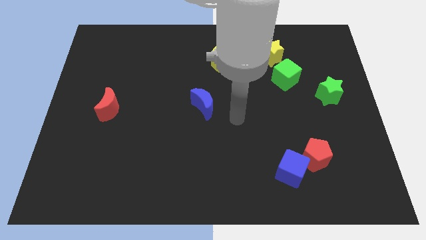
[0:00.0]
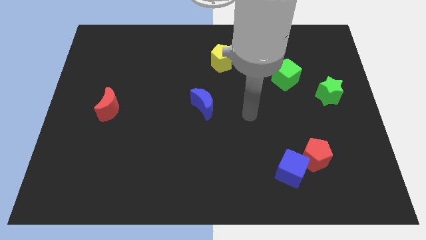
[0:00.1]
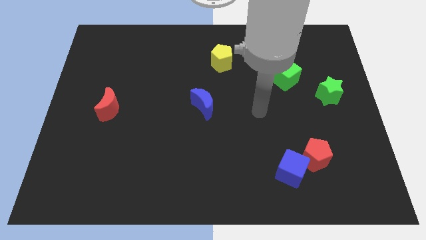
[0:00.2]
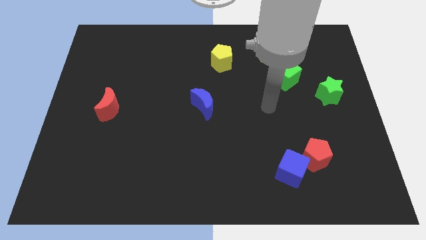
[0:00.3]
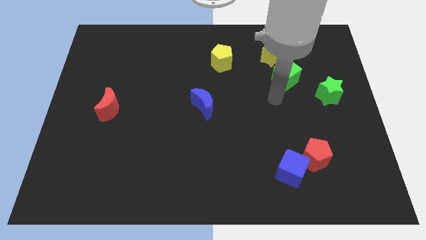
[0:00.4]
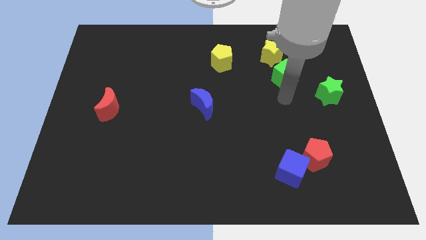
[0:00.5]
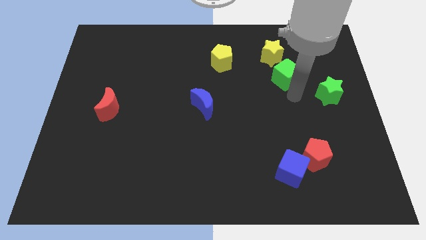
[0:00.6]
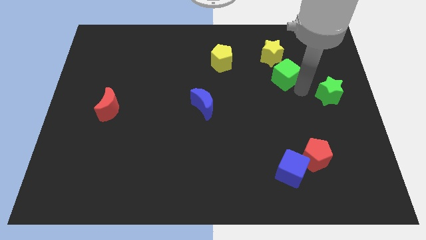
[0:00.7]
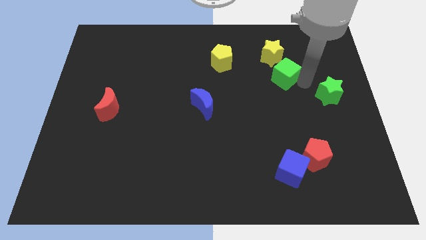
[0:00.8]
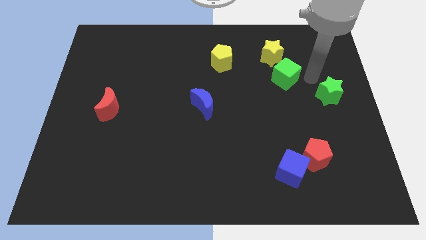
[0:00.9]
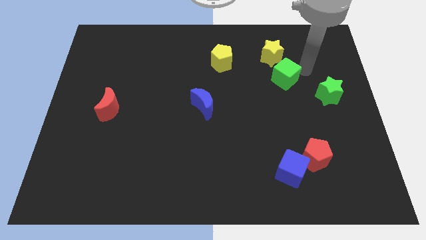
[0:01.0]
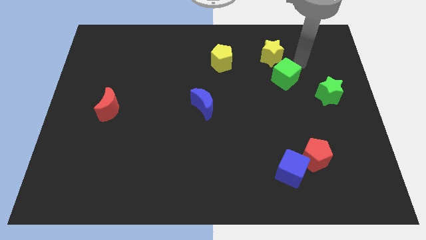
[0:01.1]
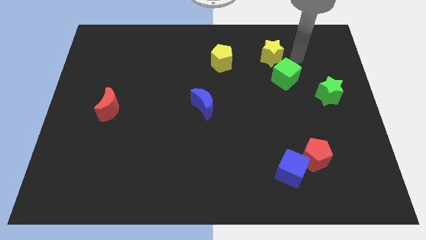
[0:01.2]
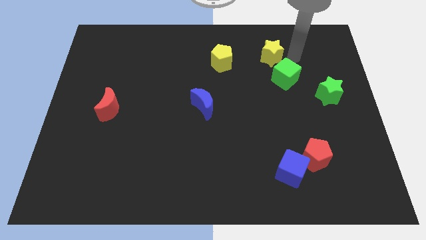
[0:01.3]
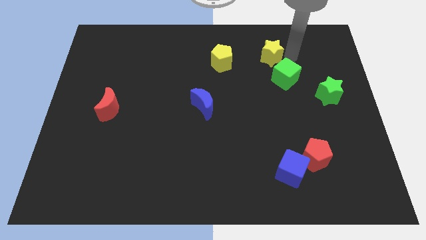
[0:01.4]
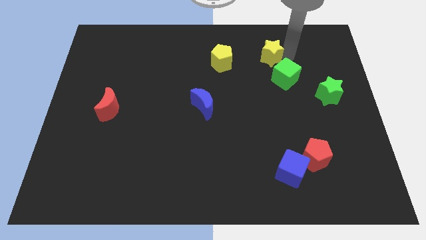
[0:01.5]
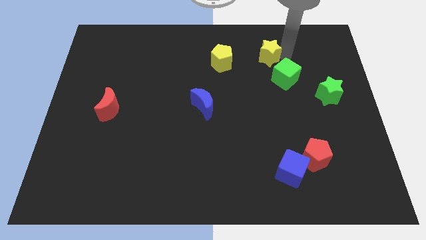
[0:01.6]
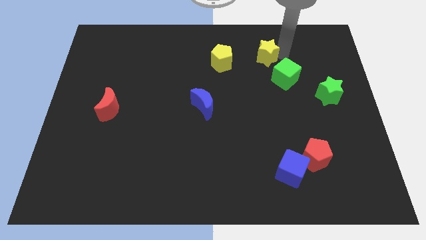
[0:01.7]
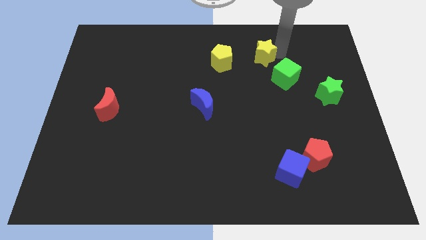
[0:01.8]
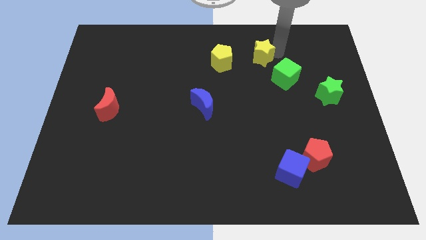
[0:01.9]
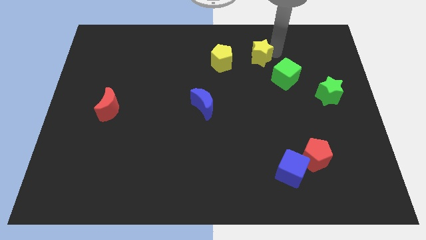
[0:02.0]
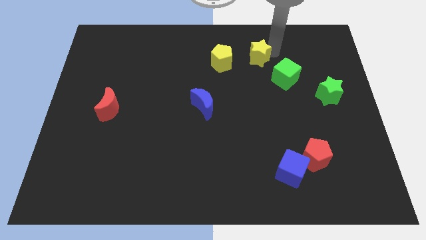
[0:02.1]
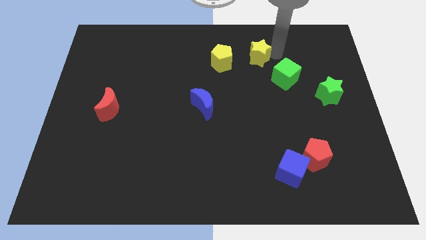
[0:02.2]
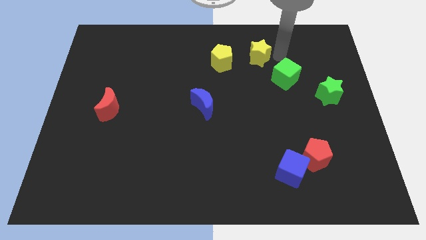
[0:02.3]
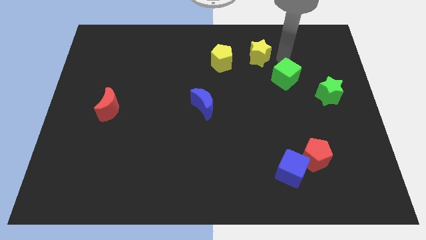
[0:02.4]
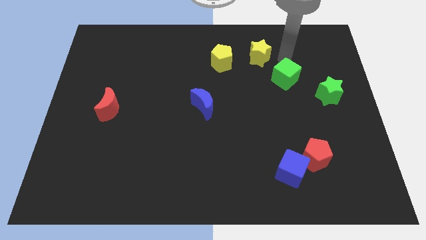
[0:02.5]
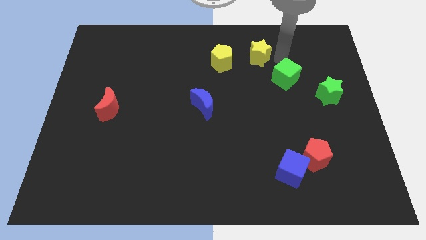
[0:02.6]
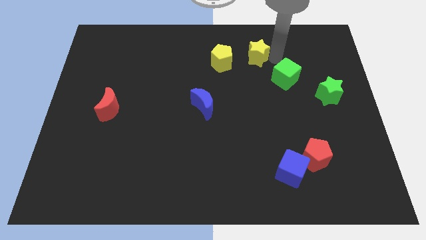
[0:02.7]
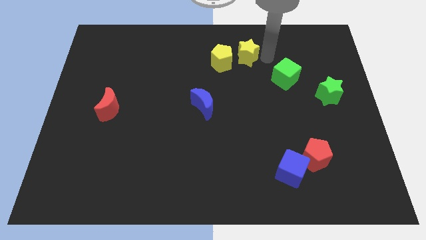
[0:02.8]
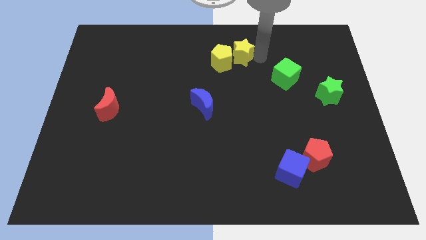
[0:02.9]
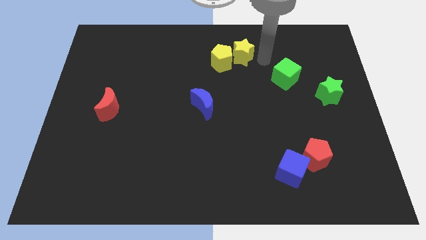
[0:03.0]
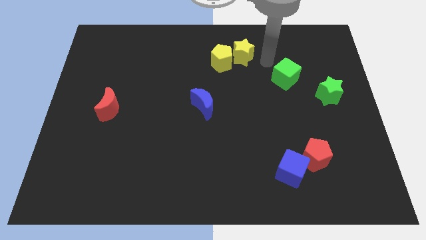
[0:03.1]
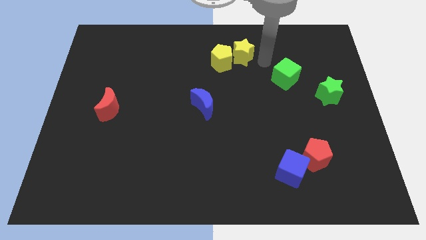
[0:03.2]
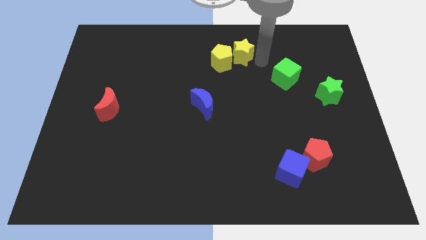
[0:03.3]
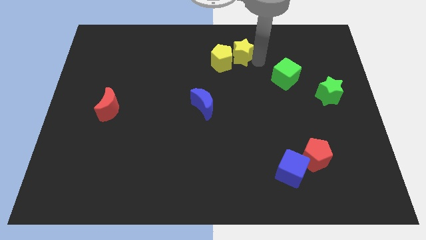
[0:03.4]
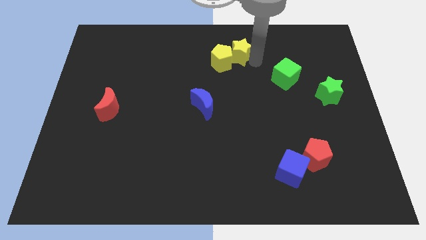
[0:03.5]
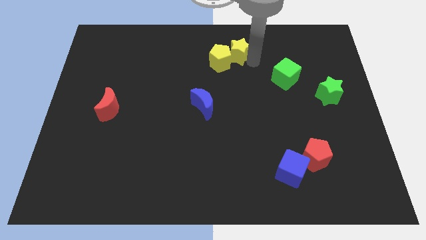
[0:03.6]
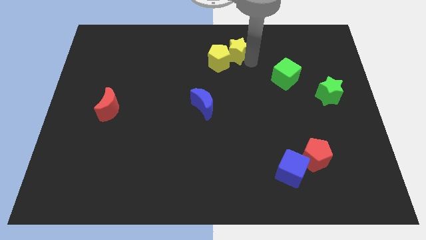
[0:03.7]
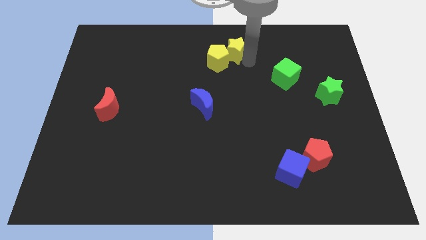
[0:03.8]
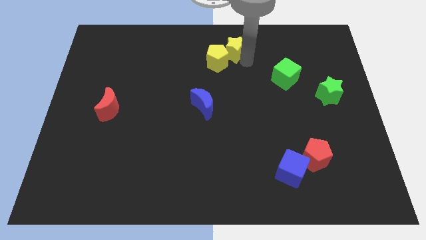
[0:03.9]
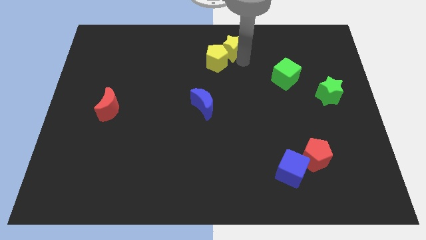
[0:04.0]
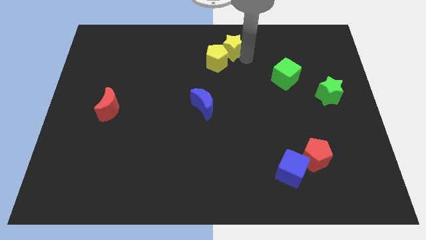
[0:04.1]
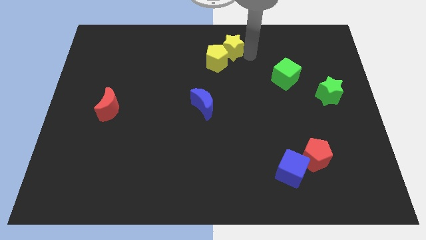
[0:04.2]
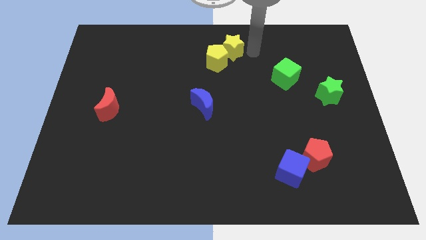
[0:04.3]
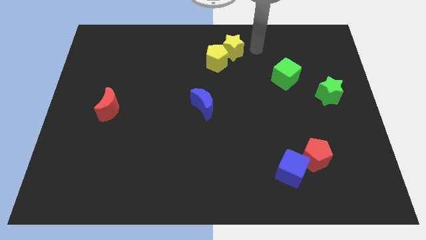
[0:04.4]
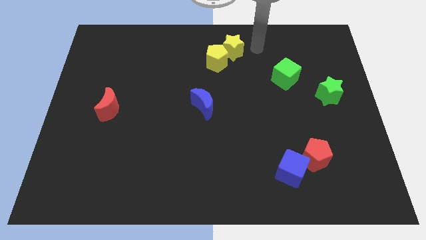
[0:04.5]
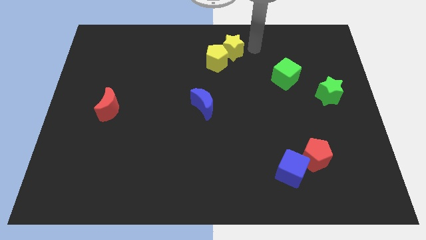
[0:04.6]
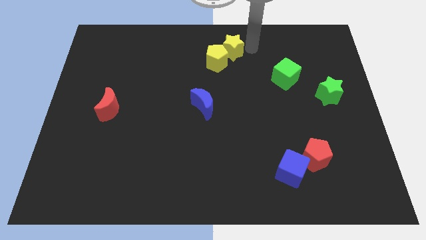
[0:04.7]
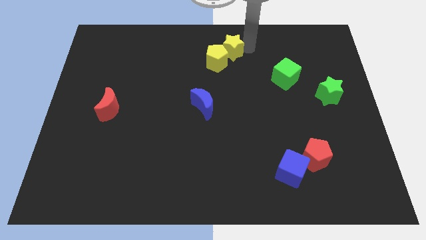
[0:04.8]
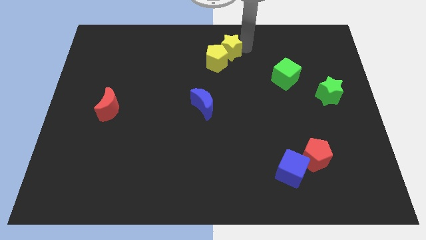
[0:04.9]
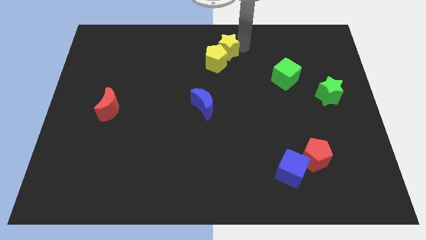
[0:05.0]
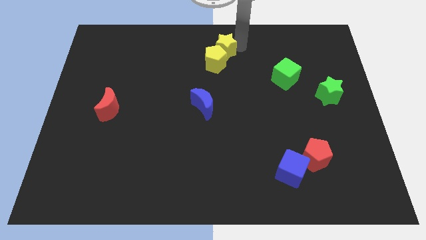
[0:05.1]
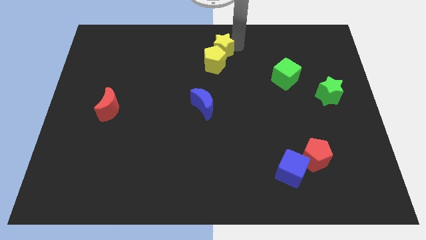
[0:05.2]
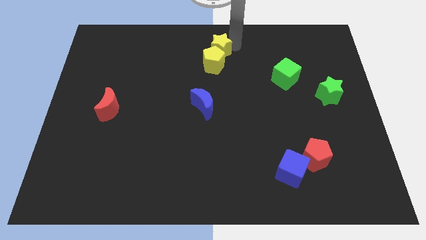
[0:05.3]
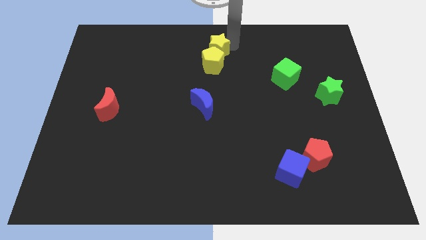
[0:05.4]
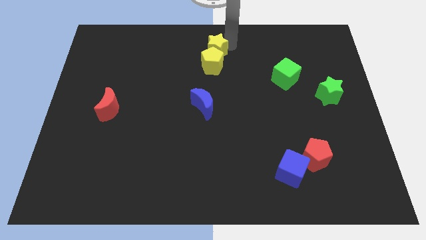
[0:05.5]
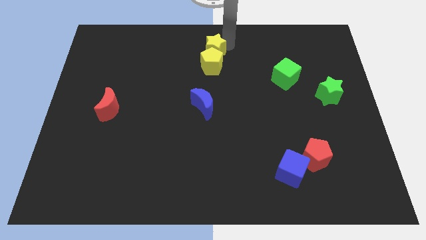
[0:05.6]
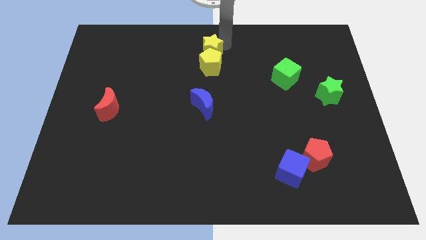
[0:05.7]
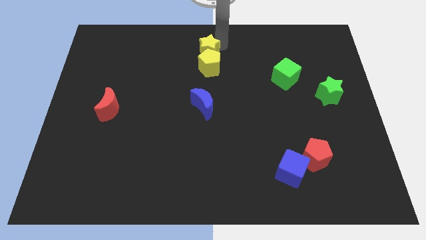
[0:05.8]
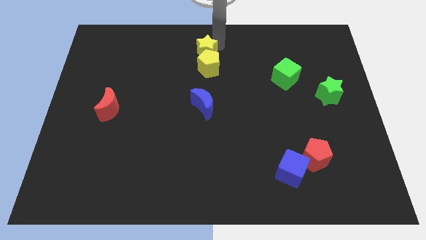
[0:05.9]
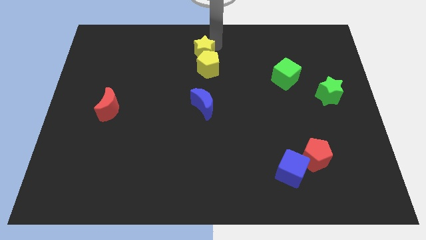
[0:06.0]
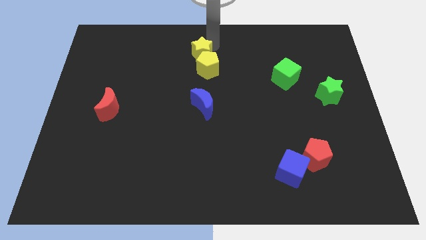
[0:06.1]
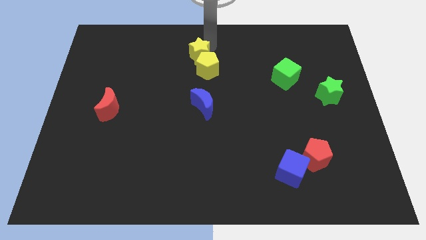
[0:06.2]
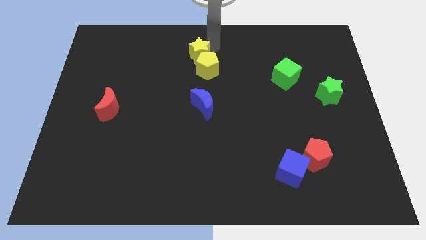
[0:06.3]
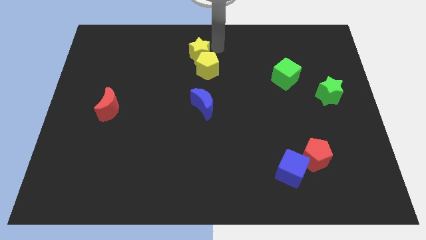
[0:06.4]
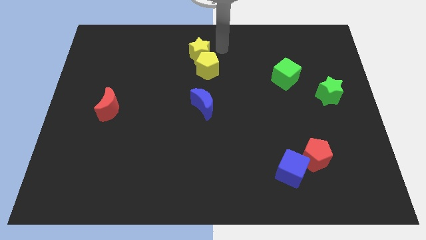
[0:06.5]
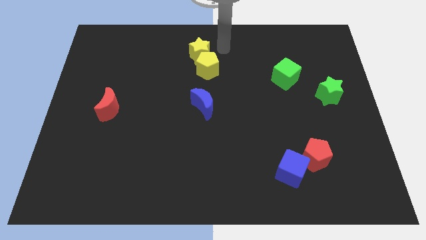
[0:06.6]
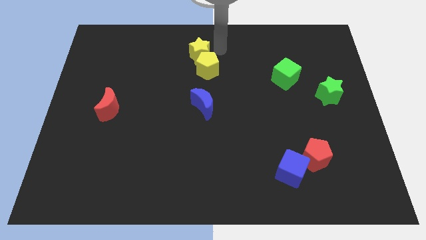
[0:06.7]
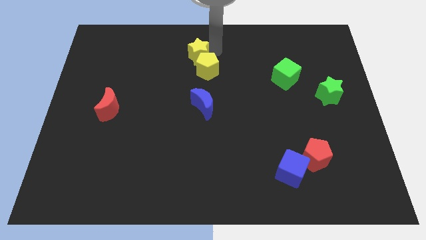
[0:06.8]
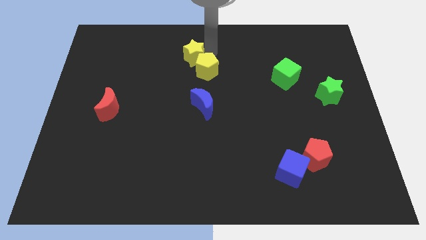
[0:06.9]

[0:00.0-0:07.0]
push the yellow star to the left

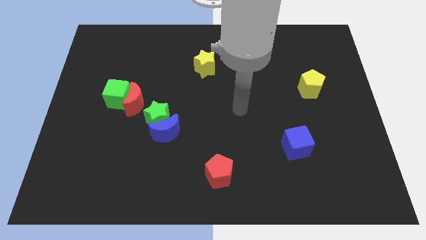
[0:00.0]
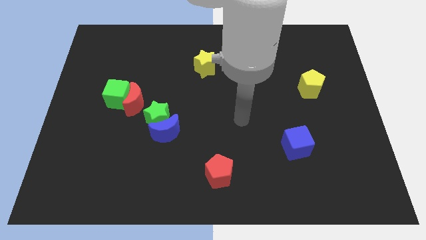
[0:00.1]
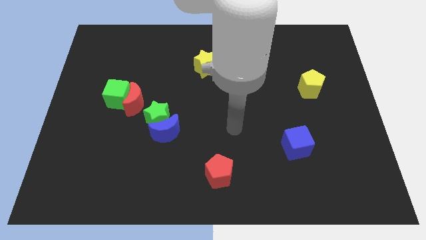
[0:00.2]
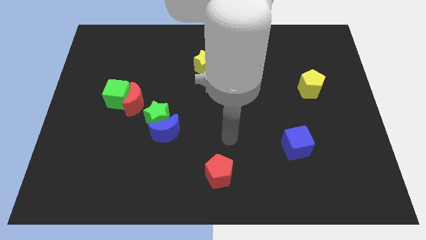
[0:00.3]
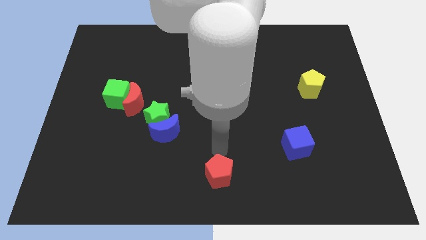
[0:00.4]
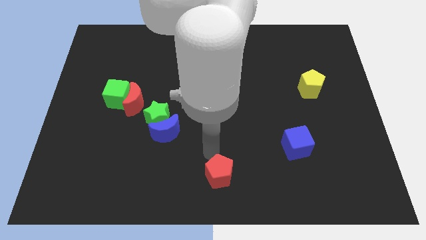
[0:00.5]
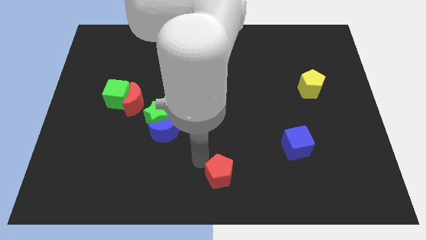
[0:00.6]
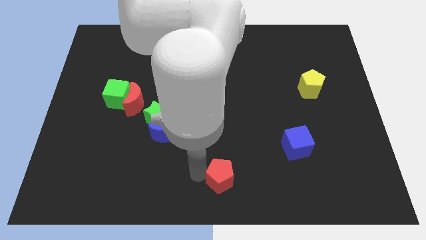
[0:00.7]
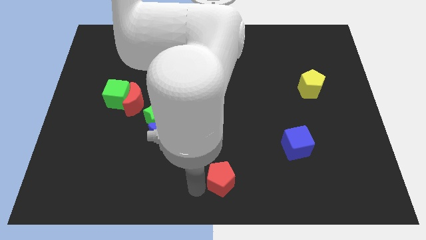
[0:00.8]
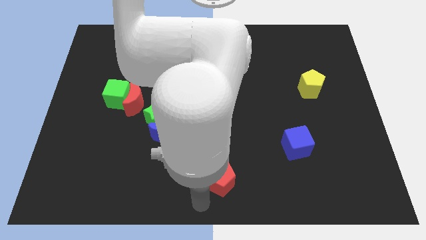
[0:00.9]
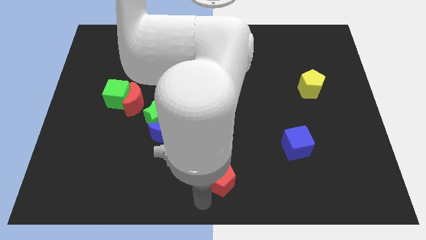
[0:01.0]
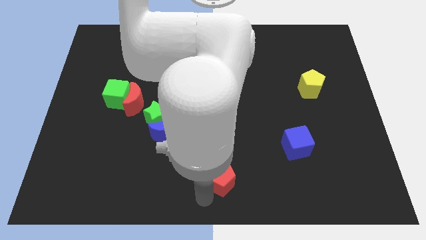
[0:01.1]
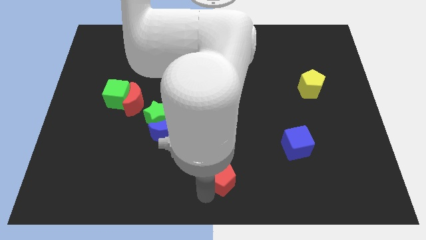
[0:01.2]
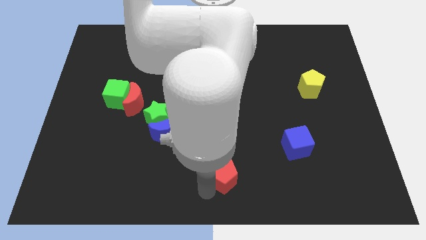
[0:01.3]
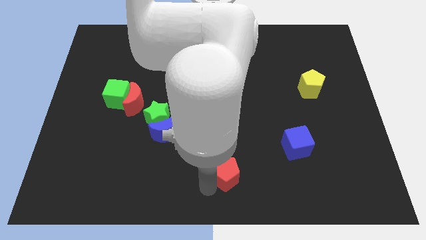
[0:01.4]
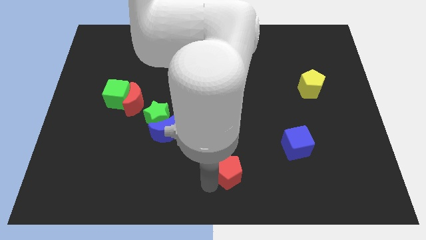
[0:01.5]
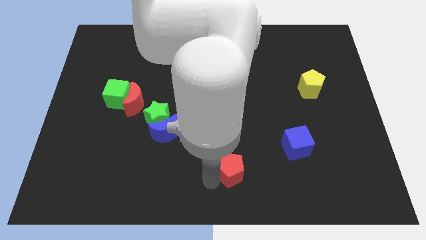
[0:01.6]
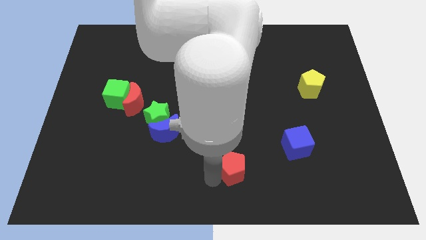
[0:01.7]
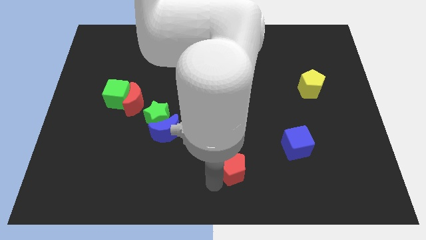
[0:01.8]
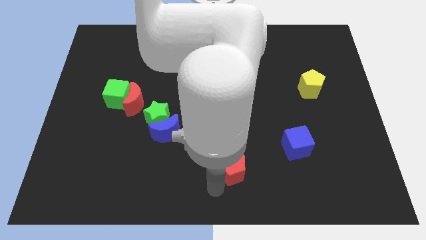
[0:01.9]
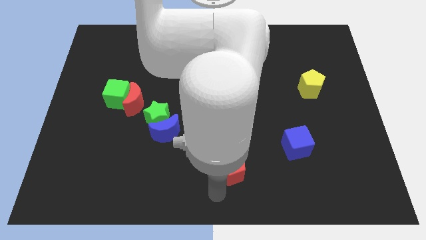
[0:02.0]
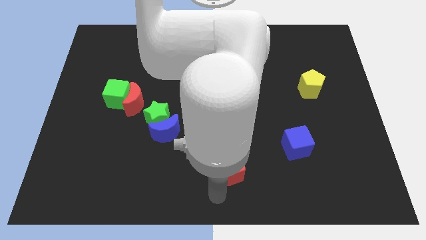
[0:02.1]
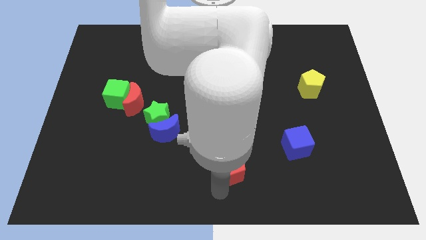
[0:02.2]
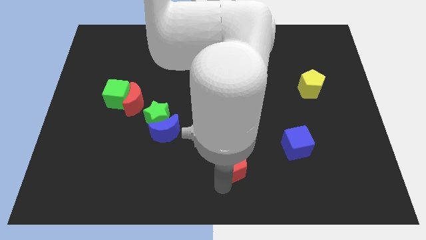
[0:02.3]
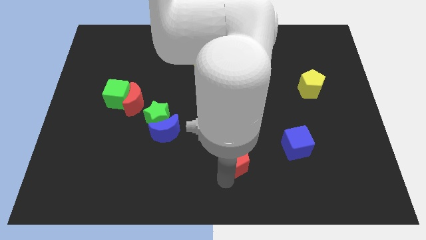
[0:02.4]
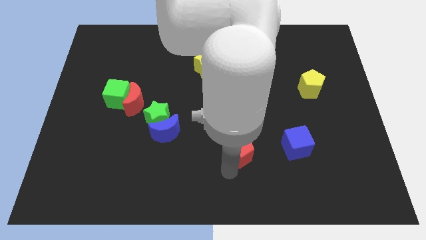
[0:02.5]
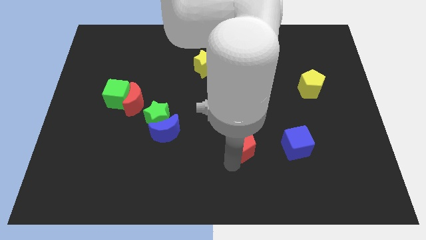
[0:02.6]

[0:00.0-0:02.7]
push the red pentagon a little up and then to the right
